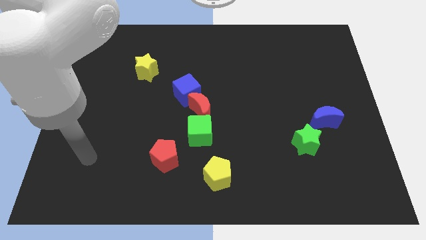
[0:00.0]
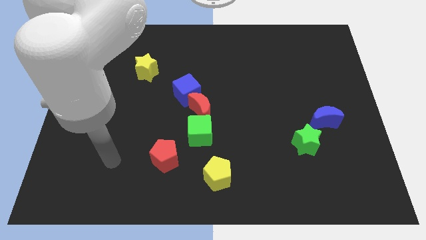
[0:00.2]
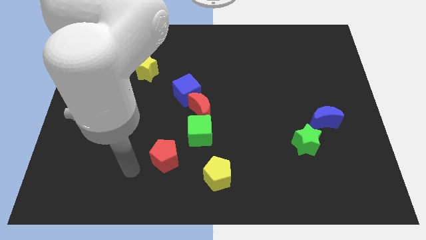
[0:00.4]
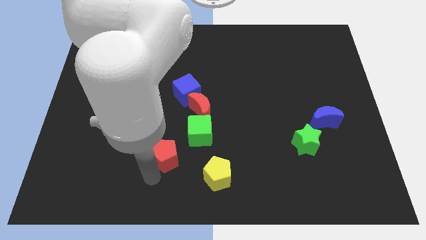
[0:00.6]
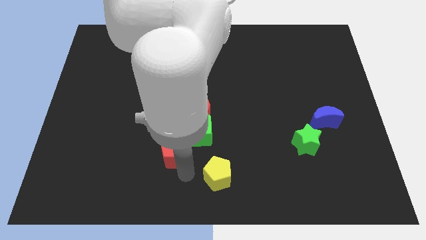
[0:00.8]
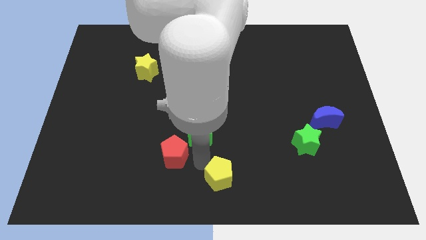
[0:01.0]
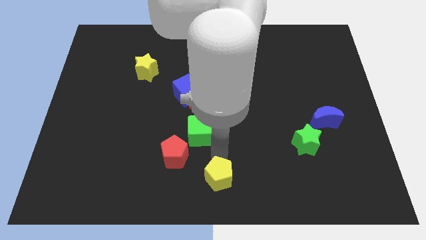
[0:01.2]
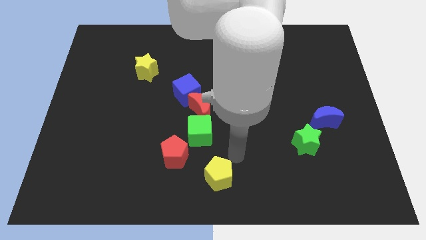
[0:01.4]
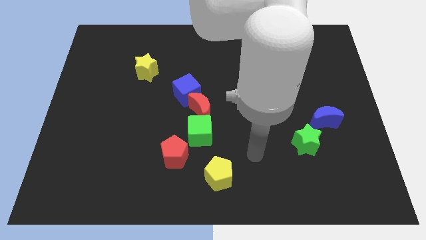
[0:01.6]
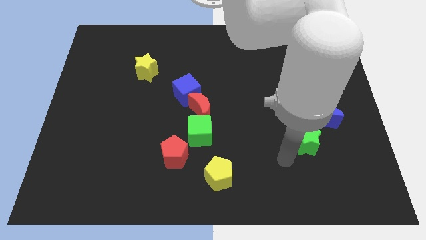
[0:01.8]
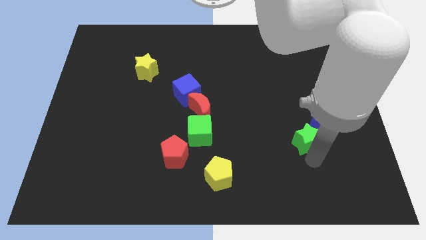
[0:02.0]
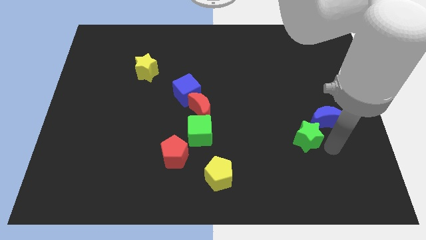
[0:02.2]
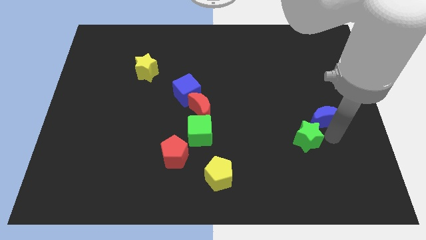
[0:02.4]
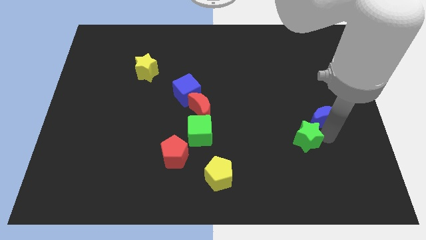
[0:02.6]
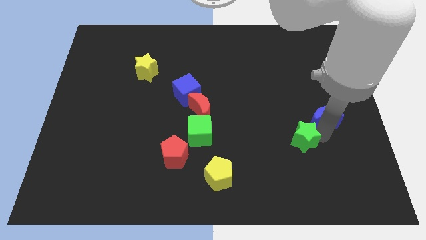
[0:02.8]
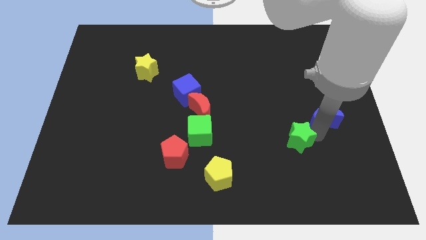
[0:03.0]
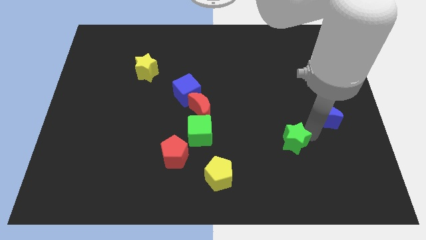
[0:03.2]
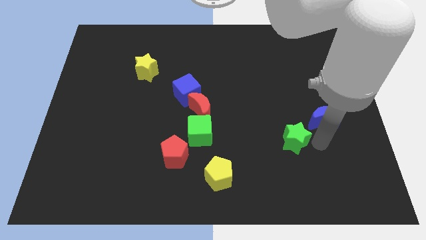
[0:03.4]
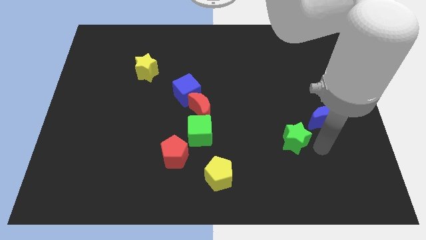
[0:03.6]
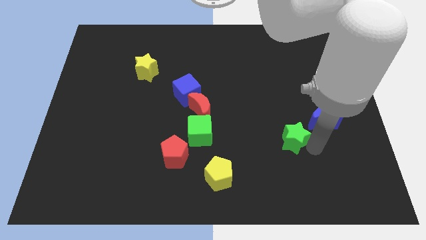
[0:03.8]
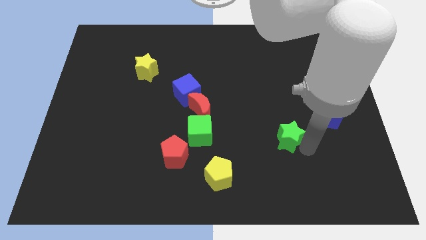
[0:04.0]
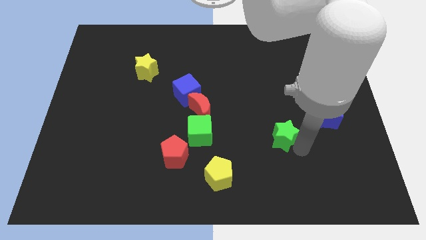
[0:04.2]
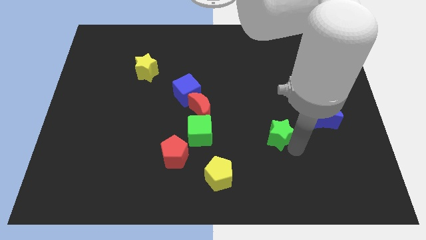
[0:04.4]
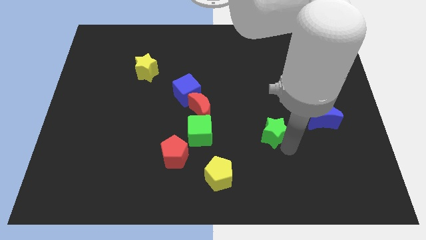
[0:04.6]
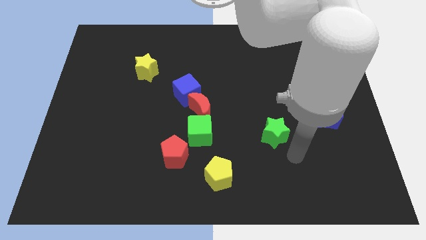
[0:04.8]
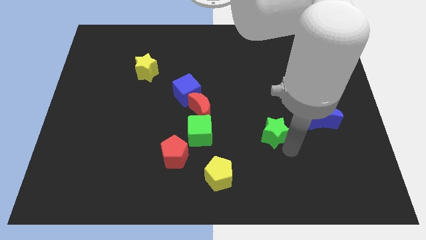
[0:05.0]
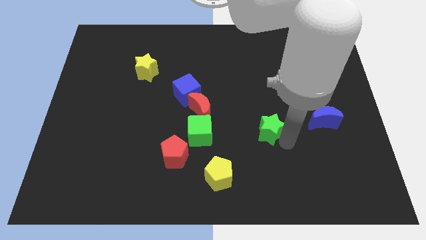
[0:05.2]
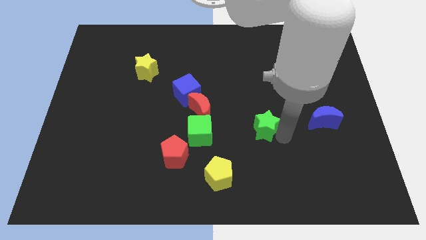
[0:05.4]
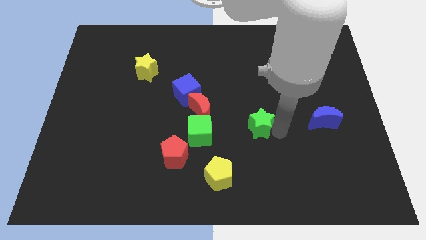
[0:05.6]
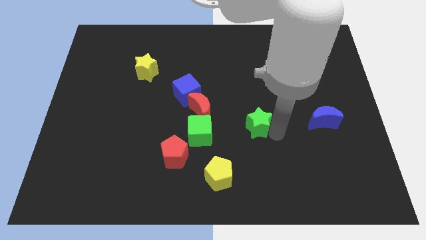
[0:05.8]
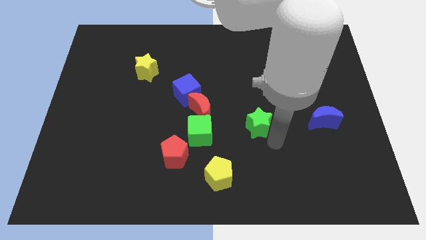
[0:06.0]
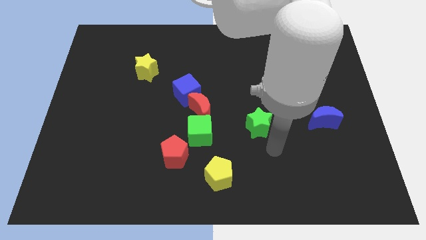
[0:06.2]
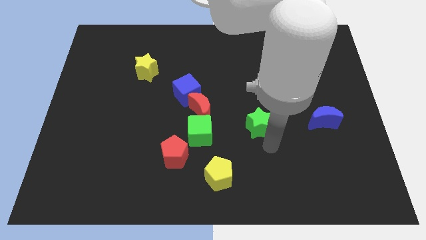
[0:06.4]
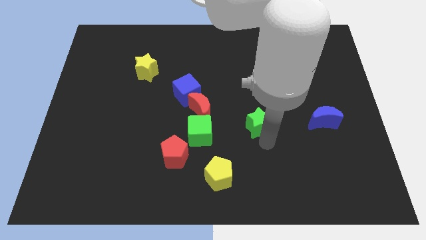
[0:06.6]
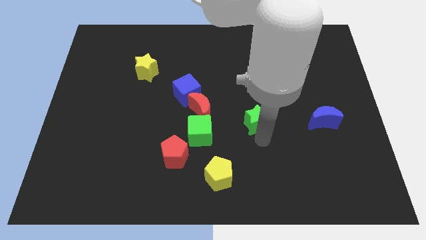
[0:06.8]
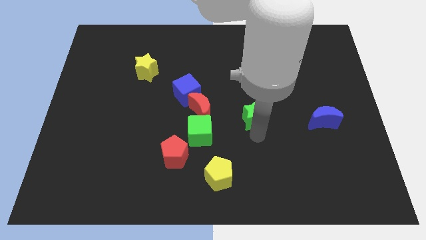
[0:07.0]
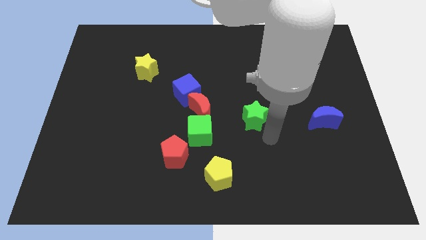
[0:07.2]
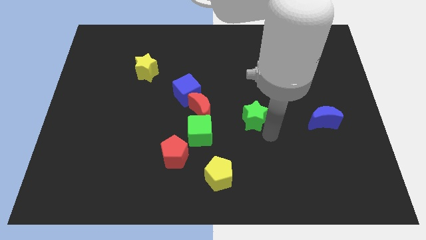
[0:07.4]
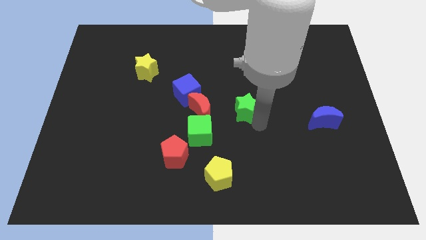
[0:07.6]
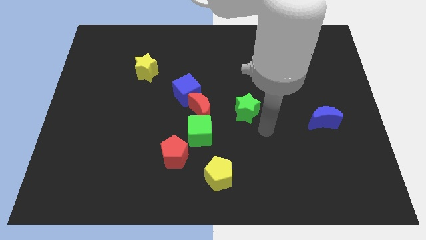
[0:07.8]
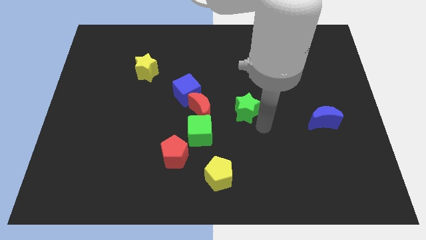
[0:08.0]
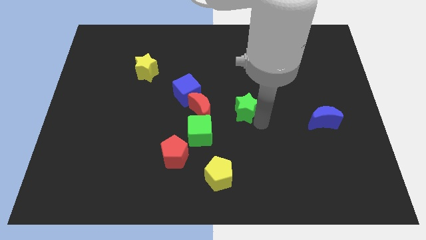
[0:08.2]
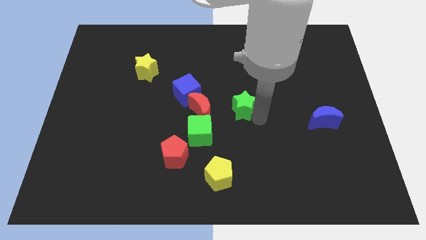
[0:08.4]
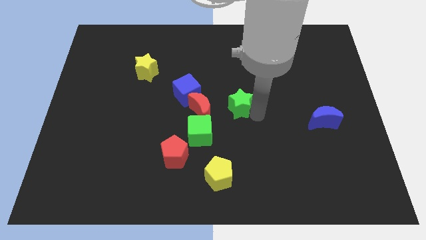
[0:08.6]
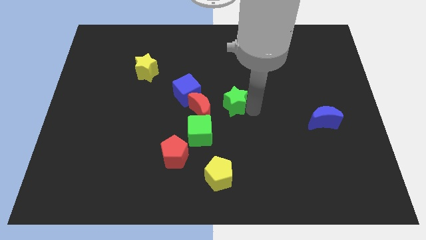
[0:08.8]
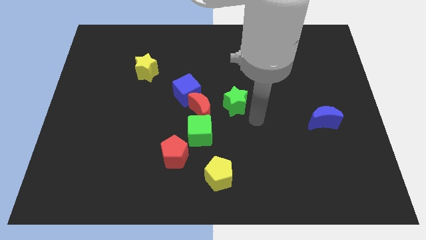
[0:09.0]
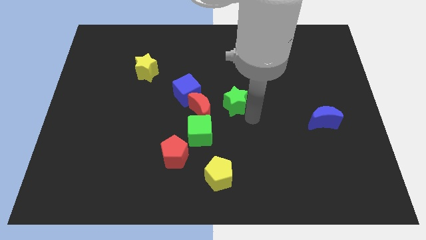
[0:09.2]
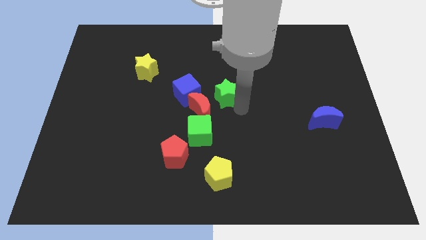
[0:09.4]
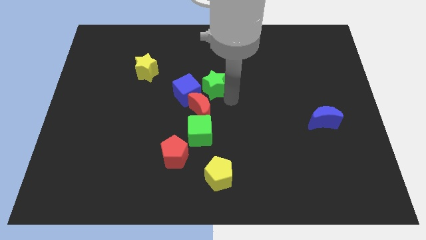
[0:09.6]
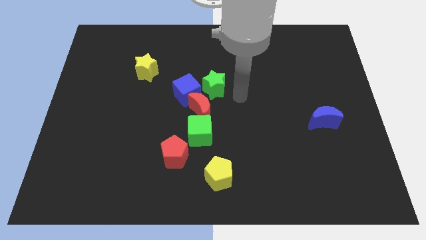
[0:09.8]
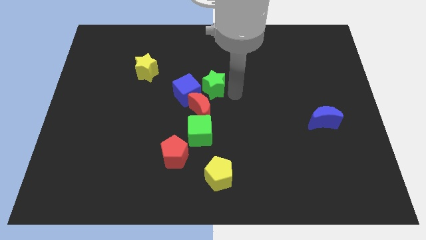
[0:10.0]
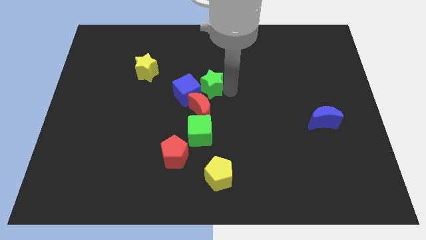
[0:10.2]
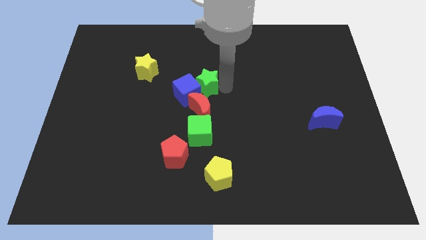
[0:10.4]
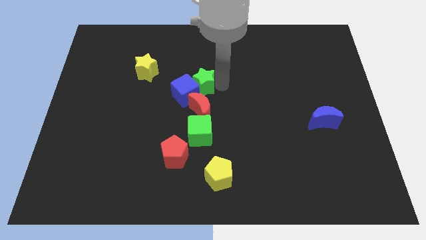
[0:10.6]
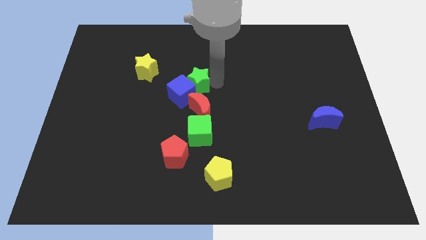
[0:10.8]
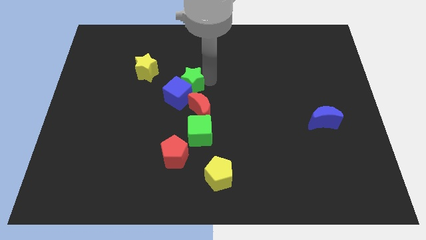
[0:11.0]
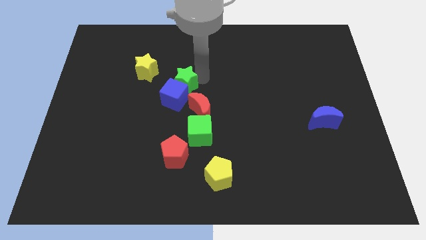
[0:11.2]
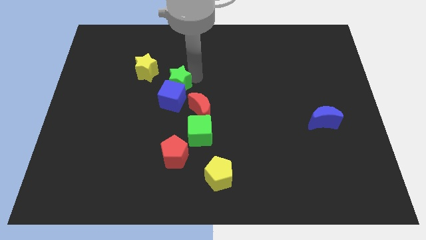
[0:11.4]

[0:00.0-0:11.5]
put the green star diagonally up and to the left of the blue cube
